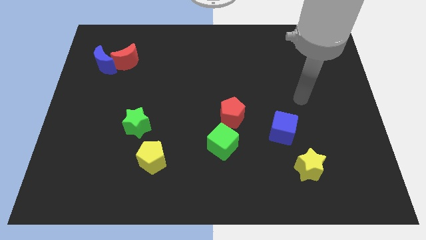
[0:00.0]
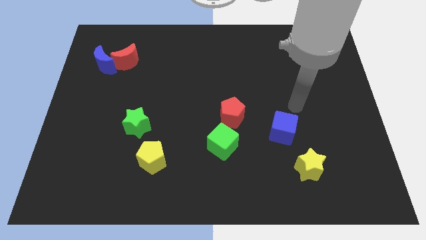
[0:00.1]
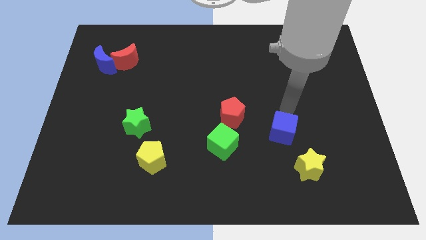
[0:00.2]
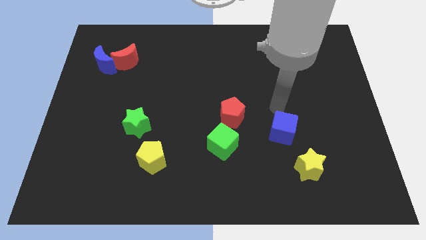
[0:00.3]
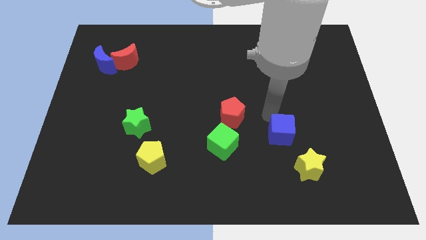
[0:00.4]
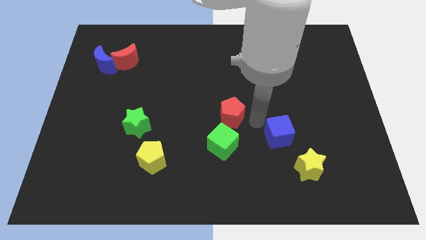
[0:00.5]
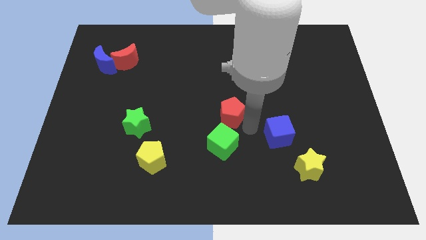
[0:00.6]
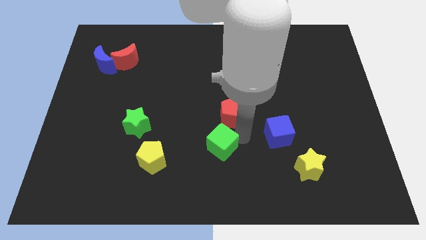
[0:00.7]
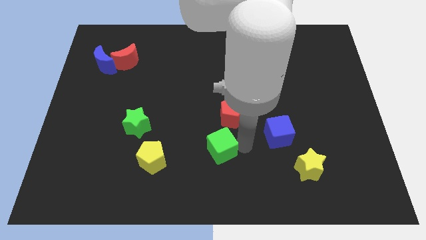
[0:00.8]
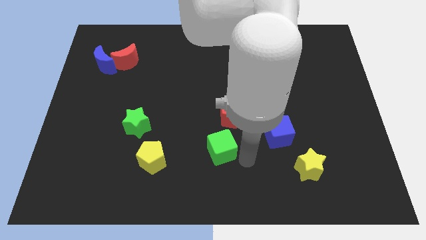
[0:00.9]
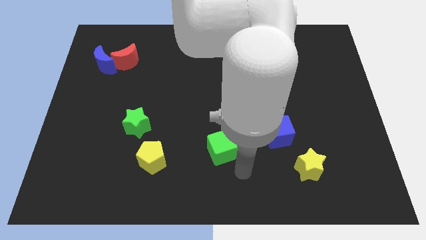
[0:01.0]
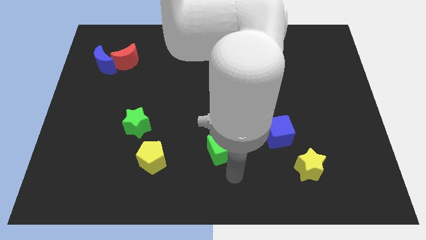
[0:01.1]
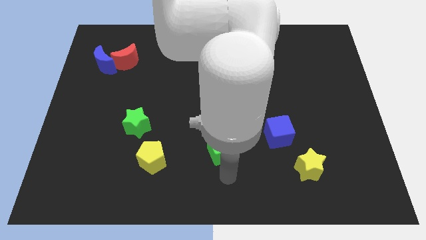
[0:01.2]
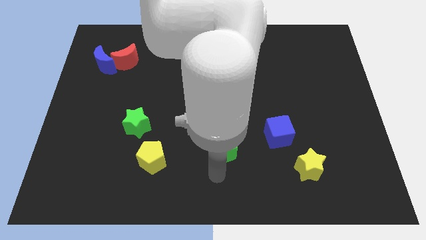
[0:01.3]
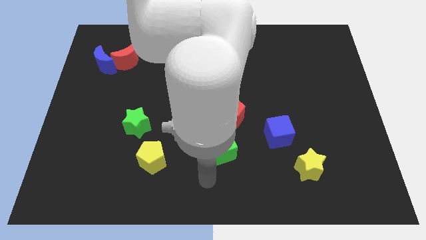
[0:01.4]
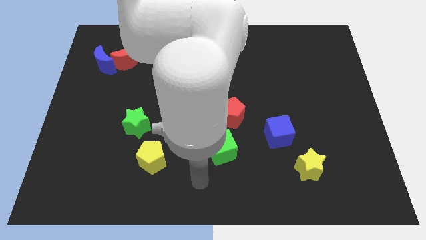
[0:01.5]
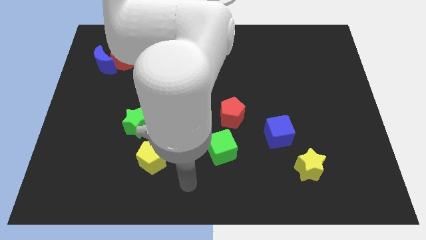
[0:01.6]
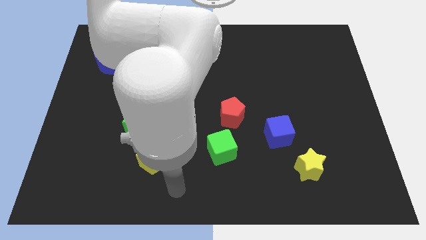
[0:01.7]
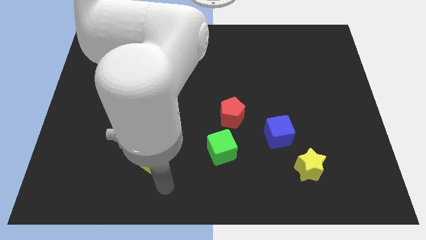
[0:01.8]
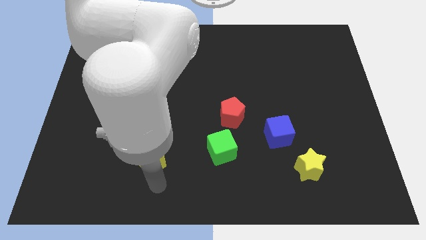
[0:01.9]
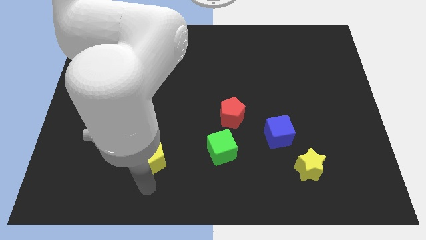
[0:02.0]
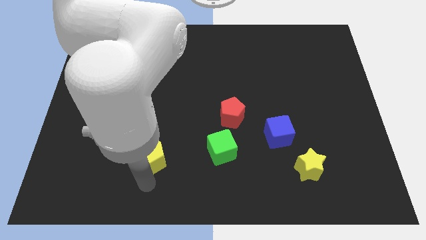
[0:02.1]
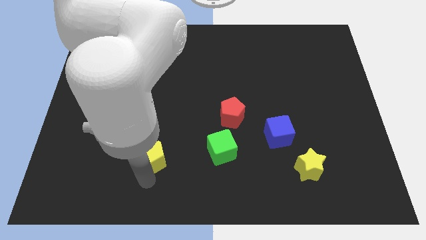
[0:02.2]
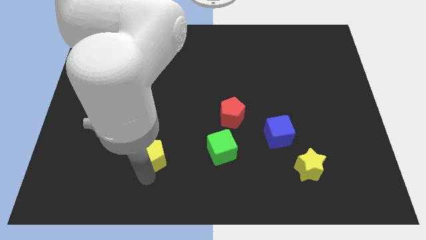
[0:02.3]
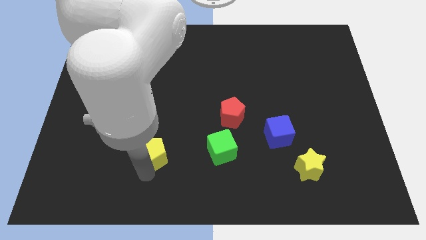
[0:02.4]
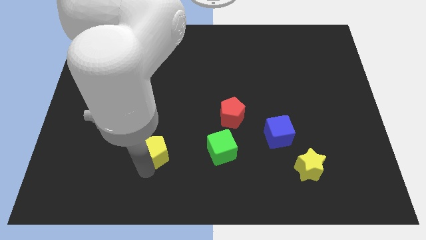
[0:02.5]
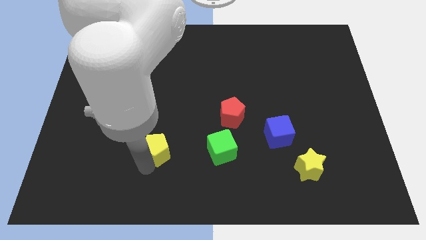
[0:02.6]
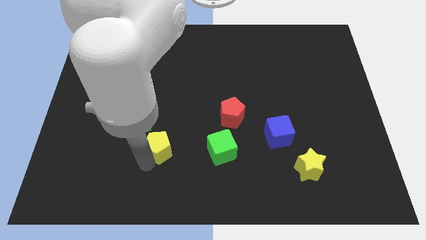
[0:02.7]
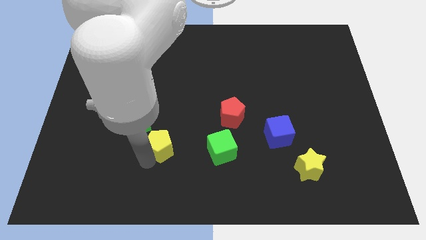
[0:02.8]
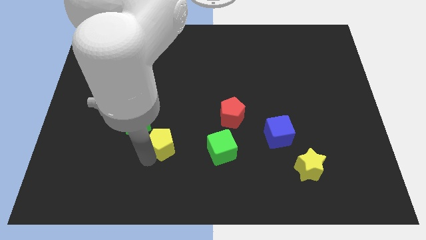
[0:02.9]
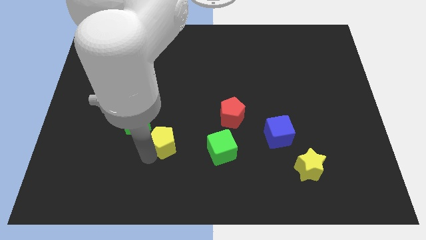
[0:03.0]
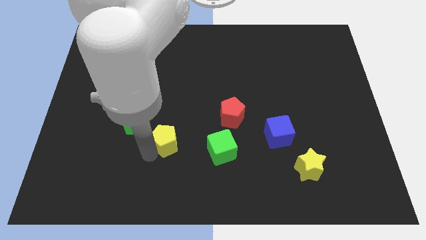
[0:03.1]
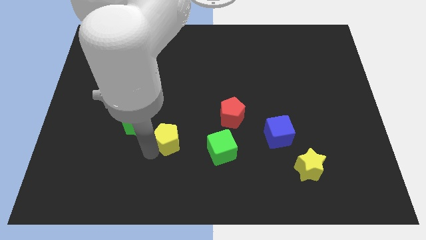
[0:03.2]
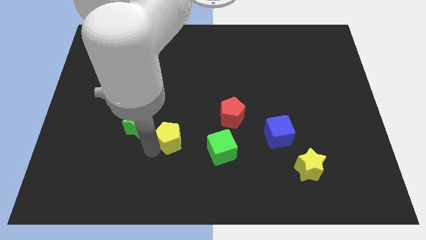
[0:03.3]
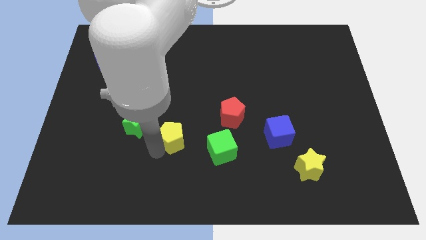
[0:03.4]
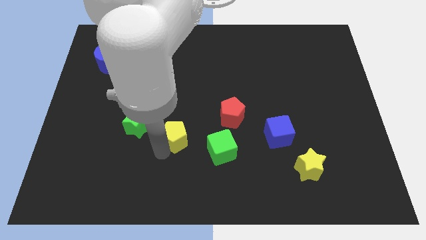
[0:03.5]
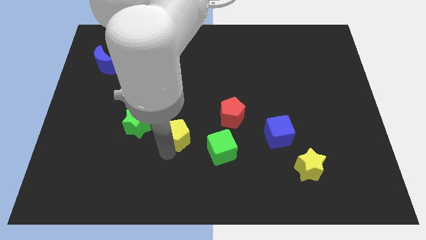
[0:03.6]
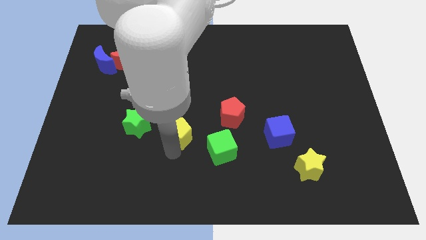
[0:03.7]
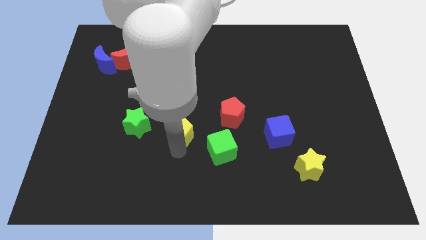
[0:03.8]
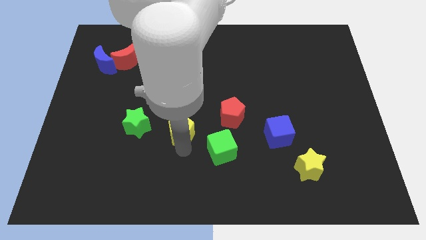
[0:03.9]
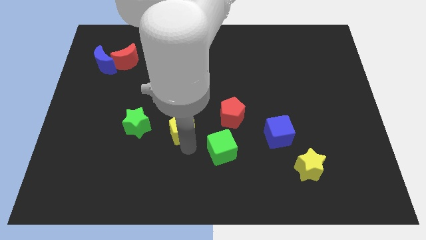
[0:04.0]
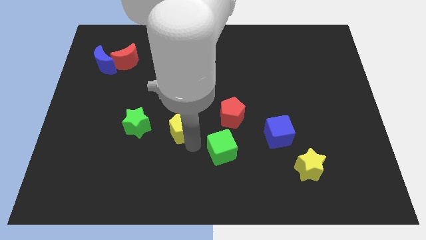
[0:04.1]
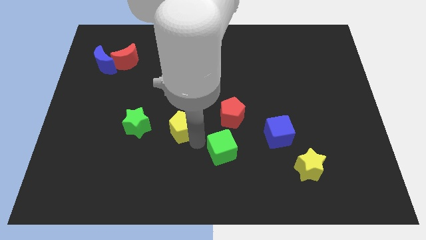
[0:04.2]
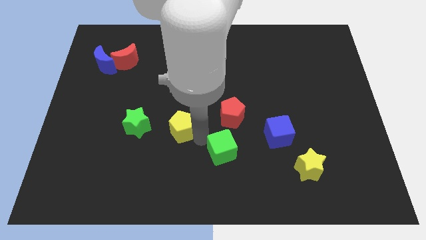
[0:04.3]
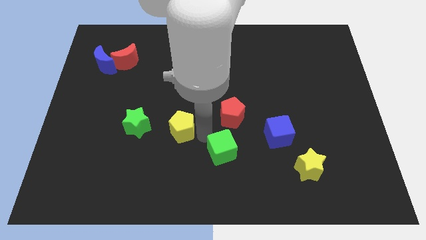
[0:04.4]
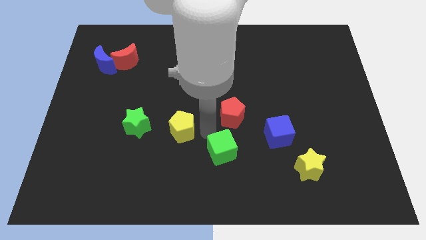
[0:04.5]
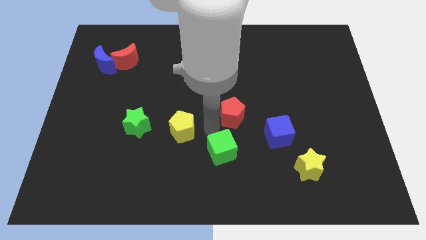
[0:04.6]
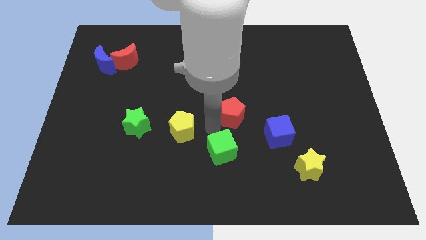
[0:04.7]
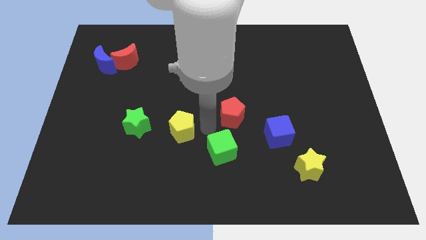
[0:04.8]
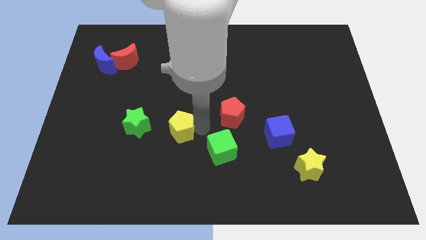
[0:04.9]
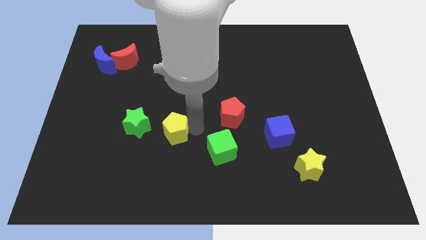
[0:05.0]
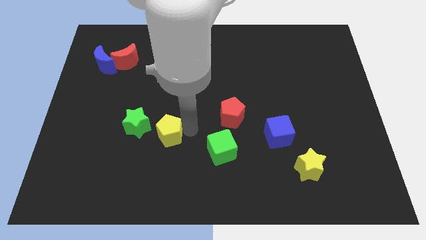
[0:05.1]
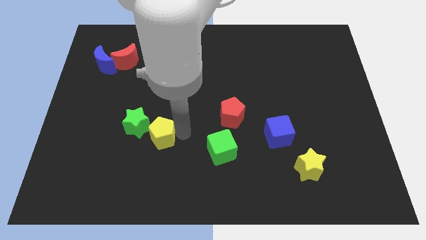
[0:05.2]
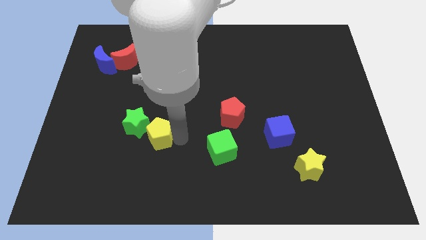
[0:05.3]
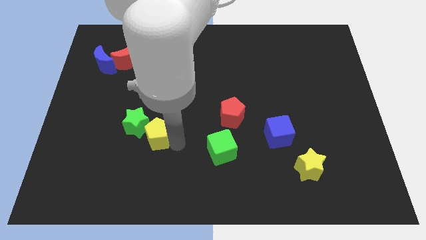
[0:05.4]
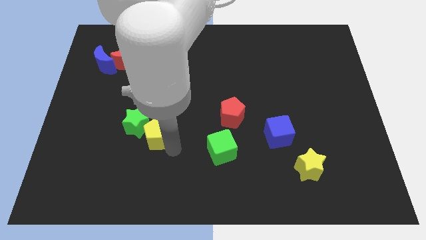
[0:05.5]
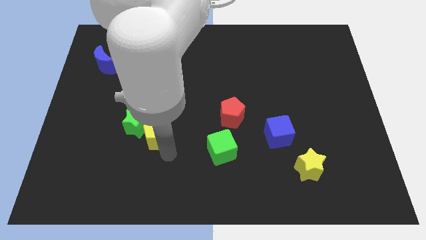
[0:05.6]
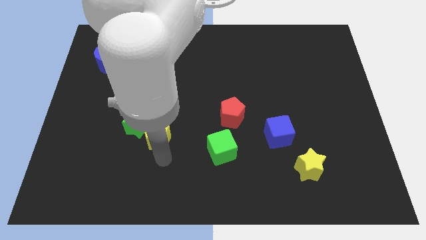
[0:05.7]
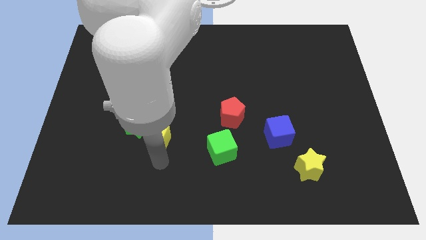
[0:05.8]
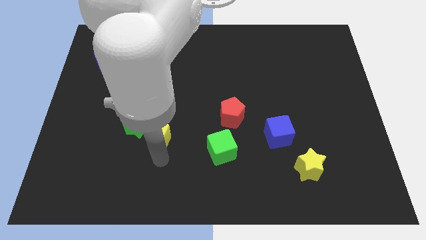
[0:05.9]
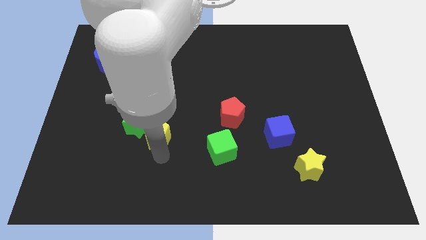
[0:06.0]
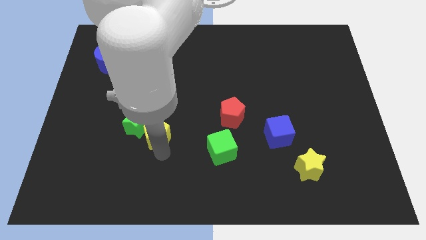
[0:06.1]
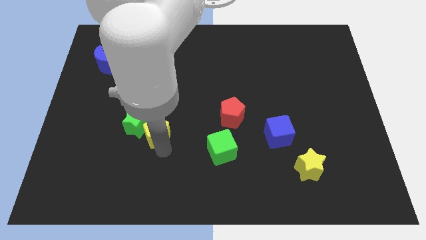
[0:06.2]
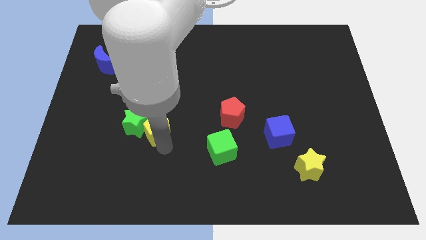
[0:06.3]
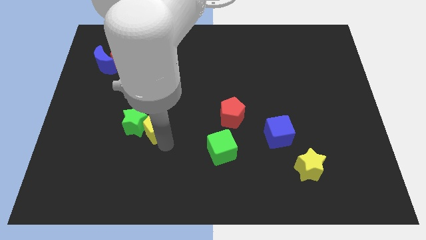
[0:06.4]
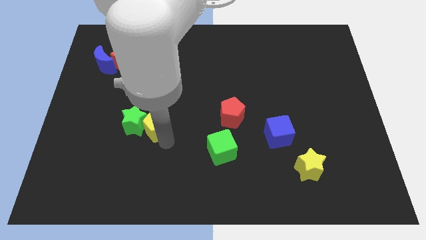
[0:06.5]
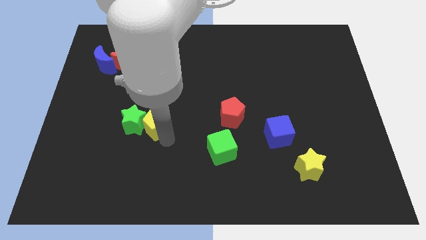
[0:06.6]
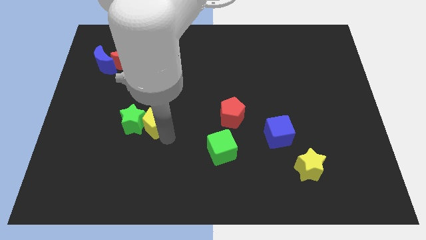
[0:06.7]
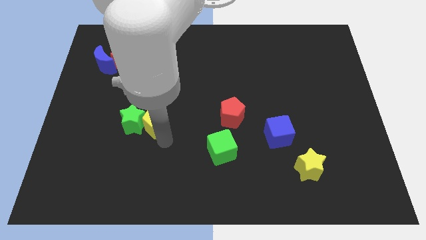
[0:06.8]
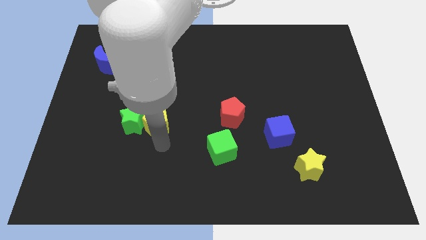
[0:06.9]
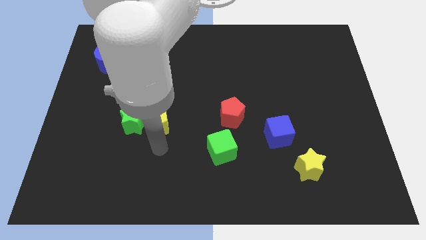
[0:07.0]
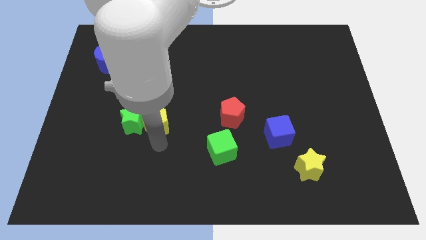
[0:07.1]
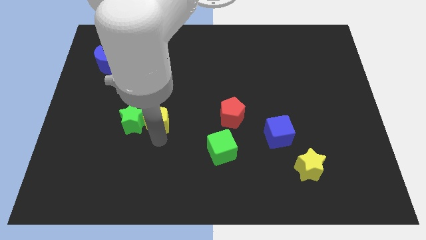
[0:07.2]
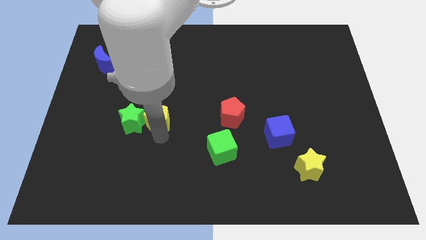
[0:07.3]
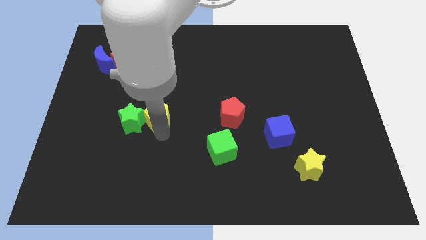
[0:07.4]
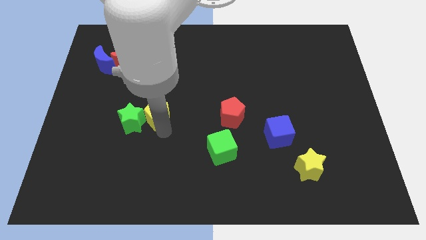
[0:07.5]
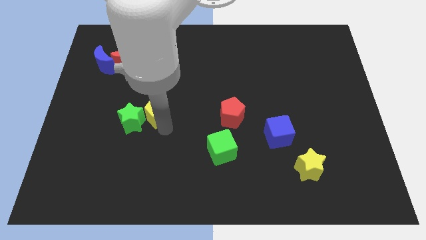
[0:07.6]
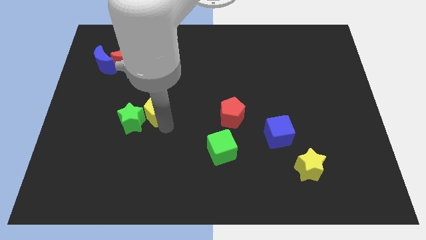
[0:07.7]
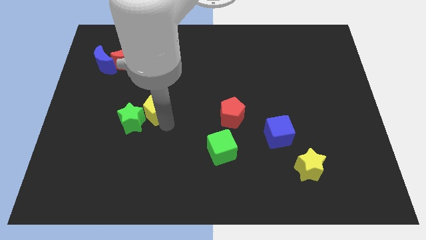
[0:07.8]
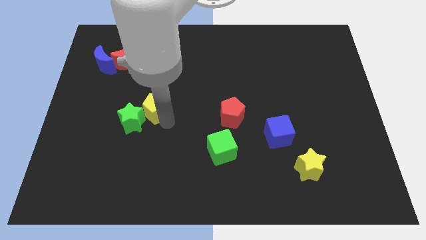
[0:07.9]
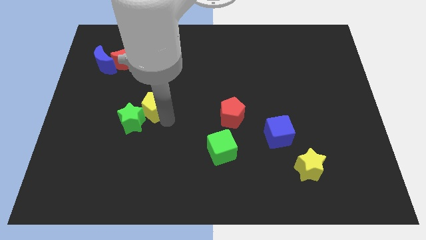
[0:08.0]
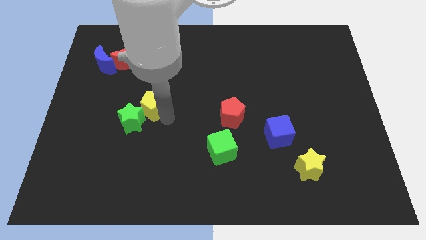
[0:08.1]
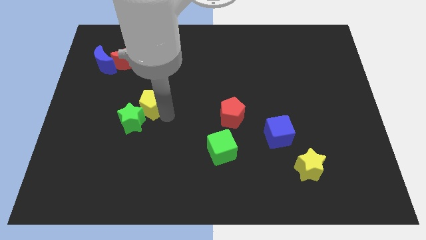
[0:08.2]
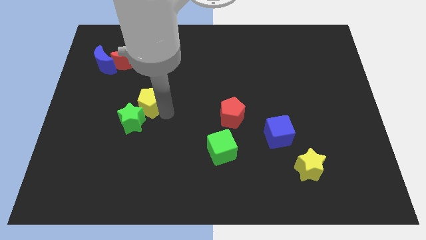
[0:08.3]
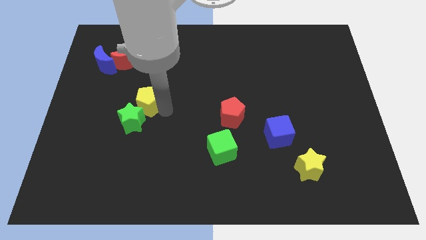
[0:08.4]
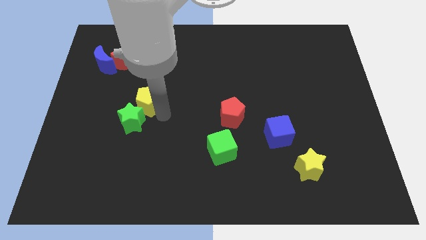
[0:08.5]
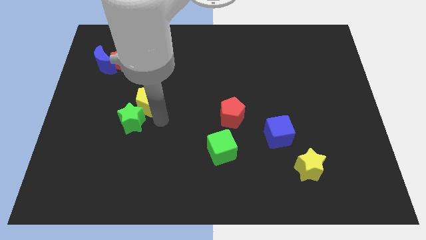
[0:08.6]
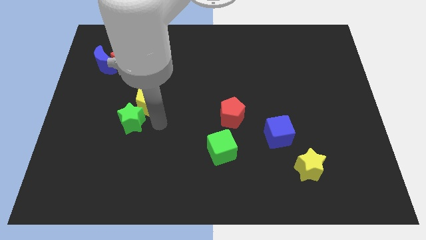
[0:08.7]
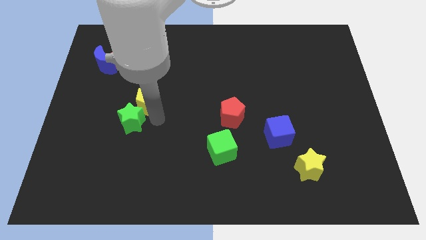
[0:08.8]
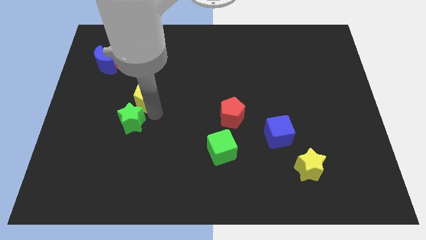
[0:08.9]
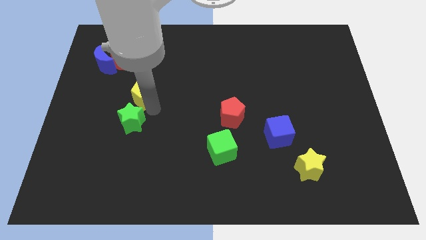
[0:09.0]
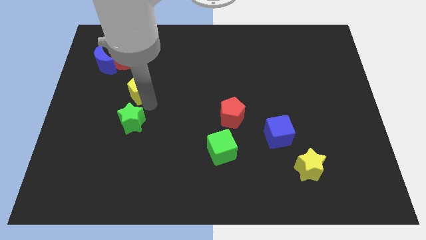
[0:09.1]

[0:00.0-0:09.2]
move the yellow pentagon to the bottom right side of the red moon
